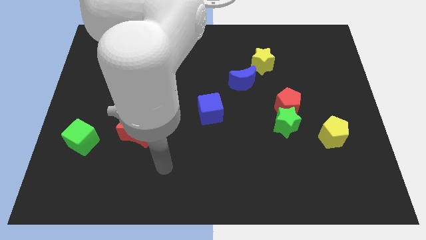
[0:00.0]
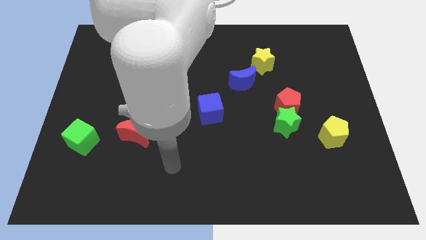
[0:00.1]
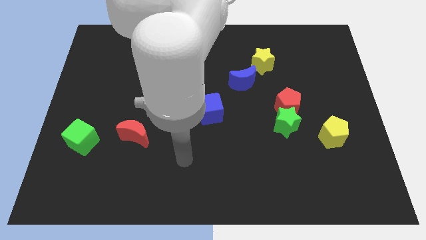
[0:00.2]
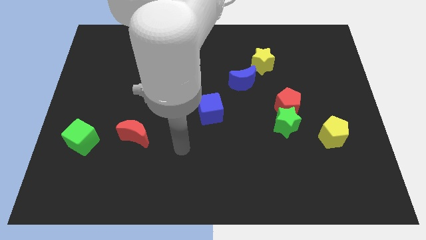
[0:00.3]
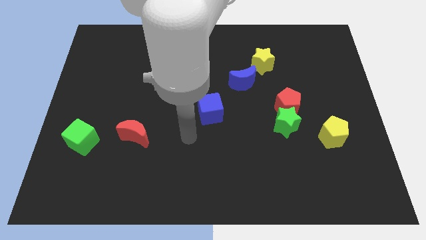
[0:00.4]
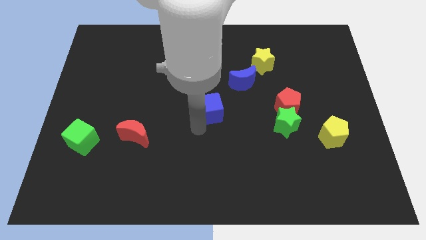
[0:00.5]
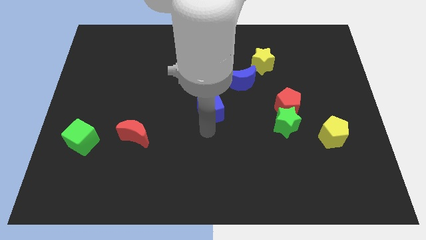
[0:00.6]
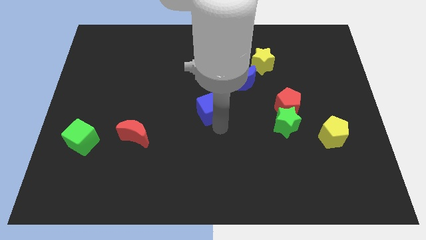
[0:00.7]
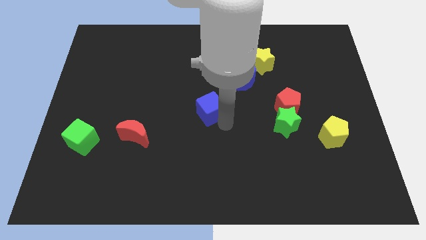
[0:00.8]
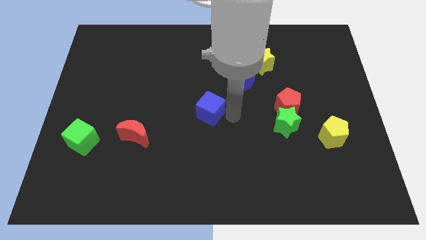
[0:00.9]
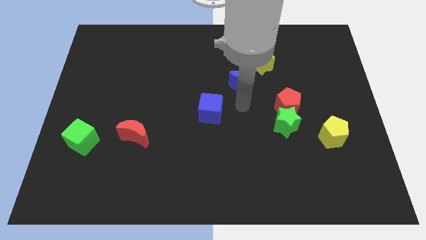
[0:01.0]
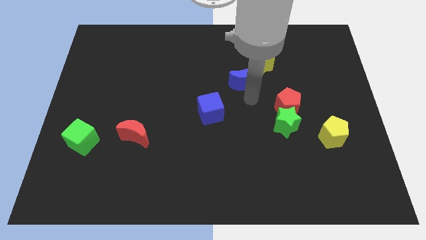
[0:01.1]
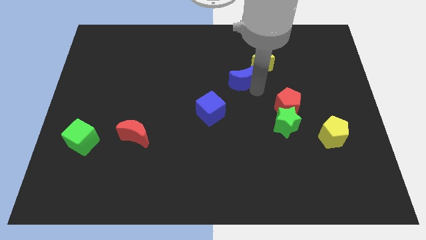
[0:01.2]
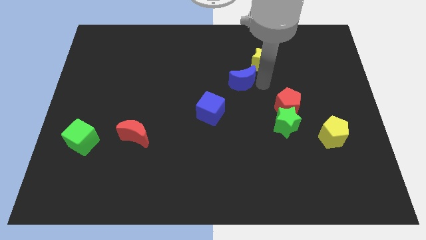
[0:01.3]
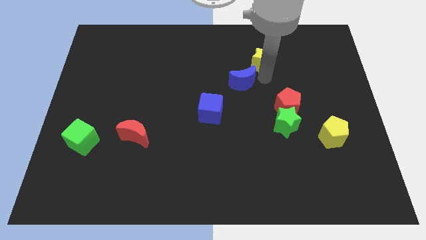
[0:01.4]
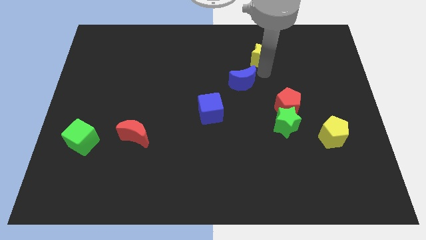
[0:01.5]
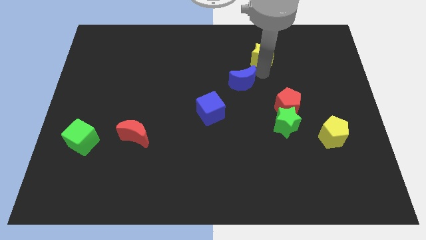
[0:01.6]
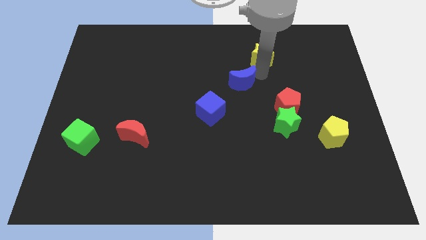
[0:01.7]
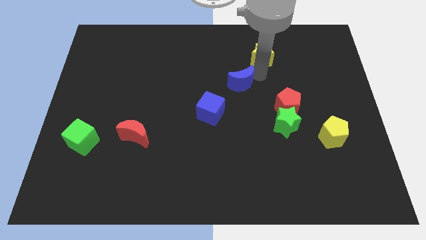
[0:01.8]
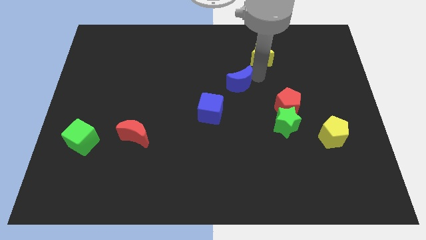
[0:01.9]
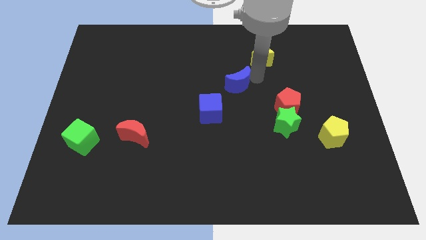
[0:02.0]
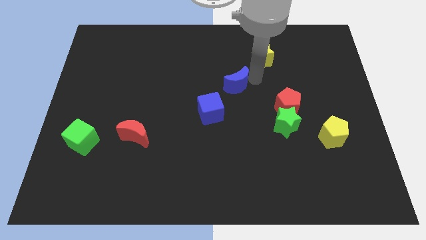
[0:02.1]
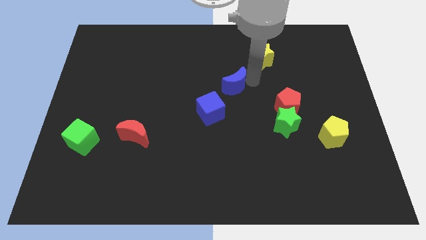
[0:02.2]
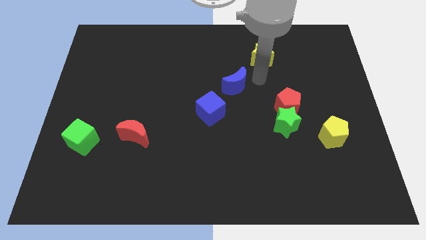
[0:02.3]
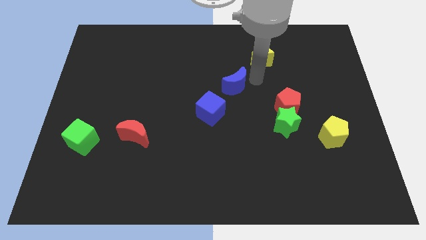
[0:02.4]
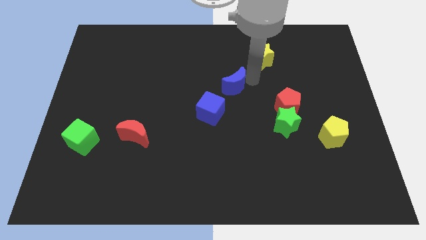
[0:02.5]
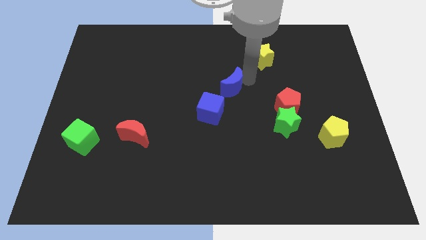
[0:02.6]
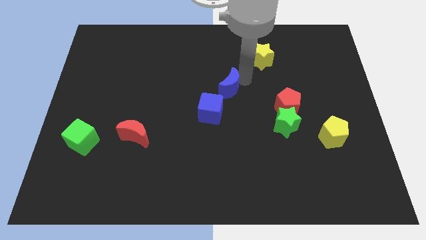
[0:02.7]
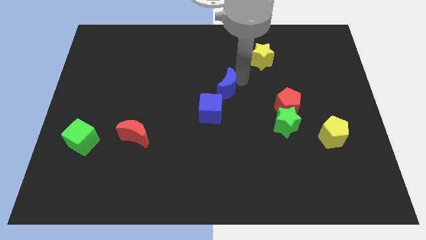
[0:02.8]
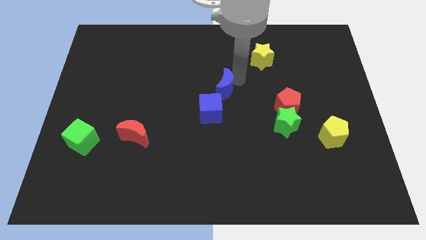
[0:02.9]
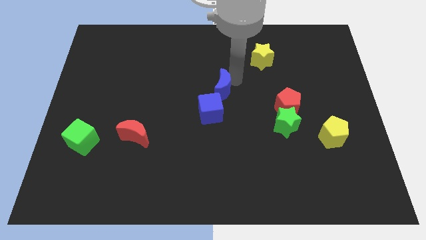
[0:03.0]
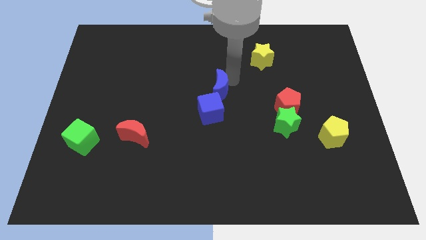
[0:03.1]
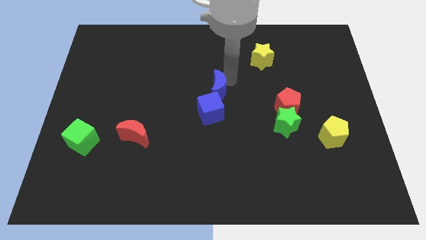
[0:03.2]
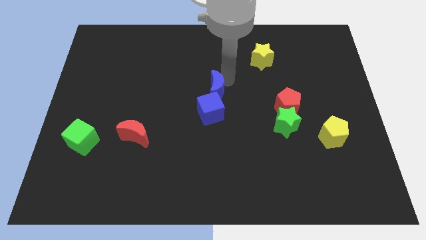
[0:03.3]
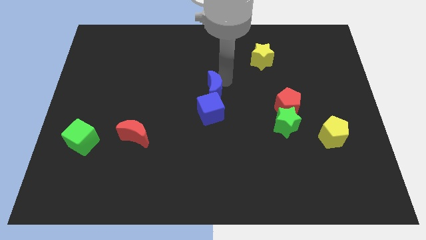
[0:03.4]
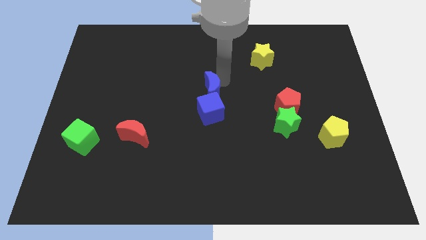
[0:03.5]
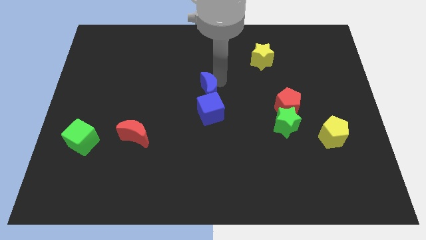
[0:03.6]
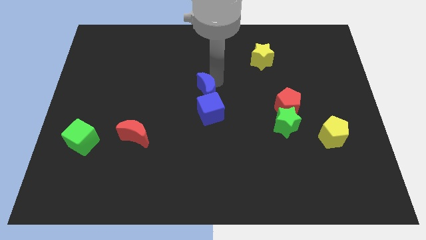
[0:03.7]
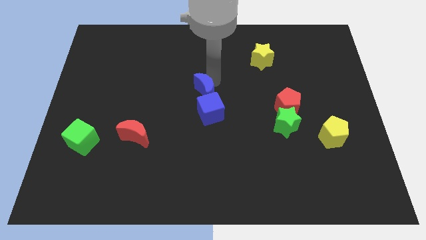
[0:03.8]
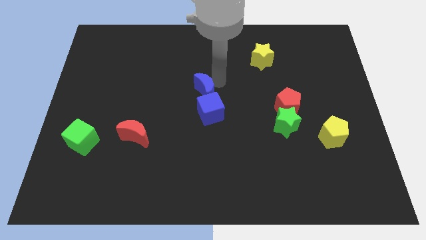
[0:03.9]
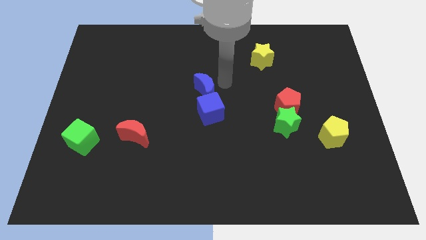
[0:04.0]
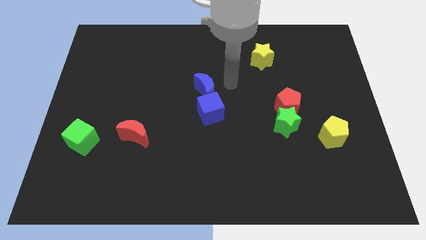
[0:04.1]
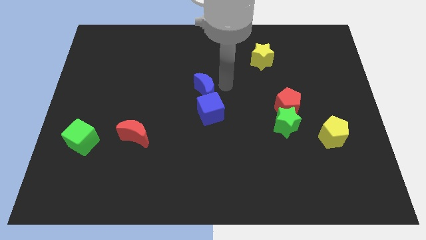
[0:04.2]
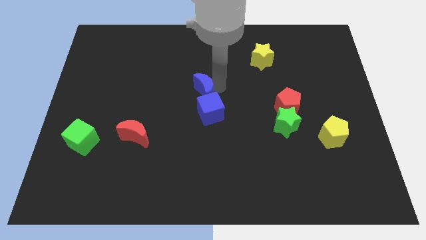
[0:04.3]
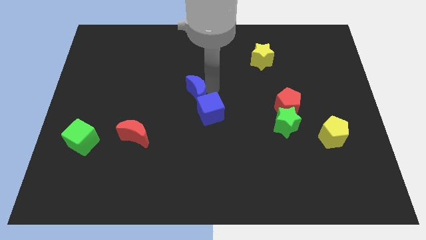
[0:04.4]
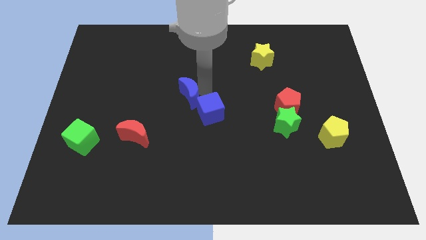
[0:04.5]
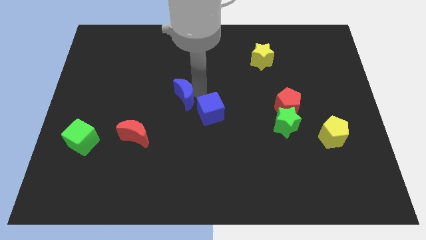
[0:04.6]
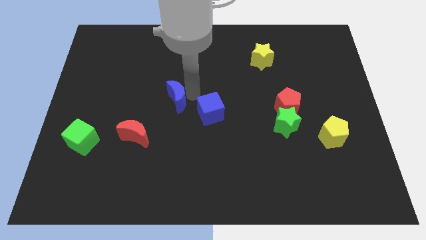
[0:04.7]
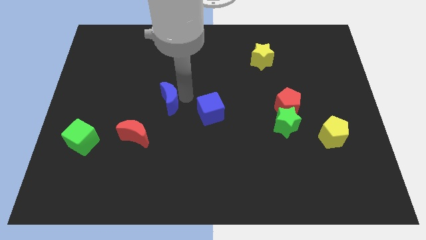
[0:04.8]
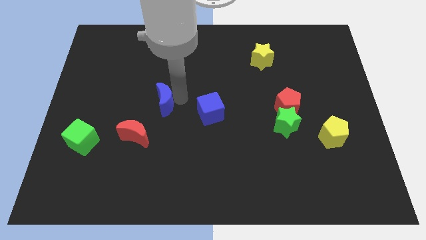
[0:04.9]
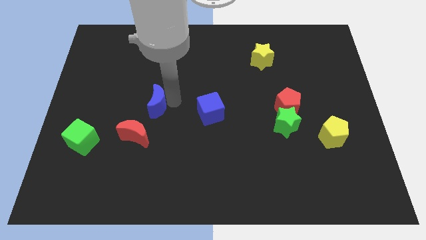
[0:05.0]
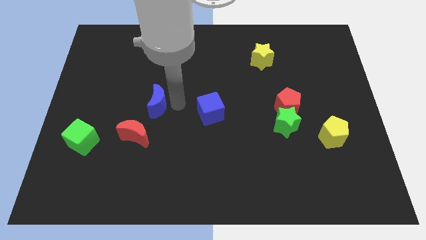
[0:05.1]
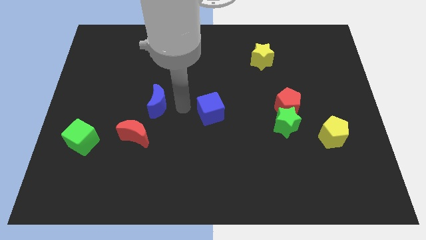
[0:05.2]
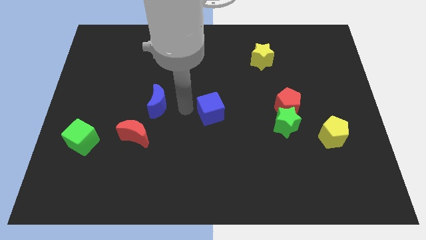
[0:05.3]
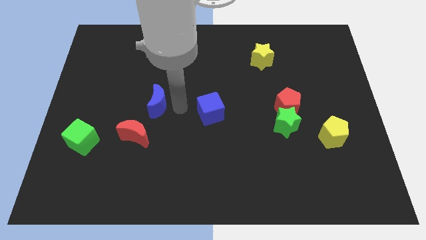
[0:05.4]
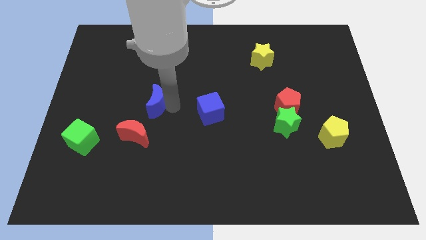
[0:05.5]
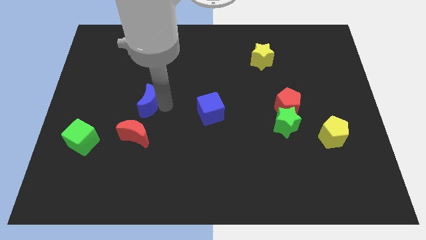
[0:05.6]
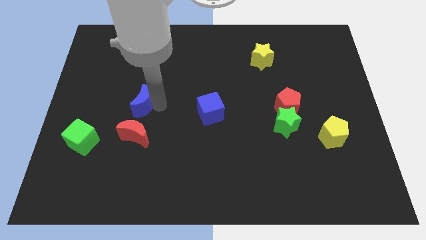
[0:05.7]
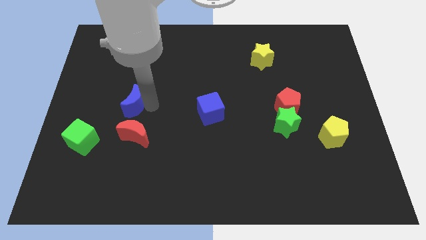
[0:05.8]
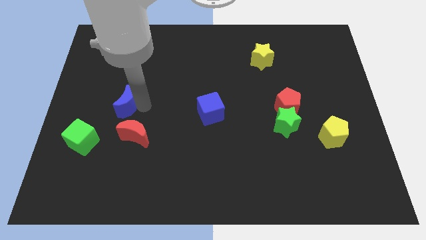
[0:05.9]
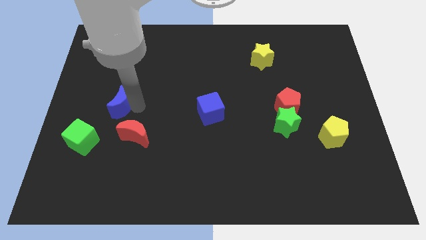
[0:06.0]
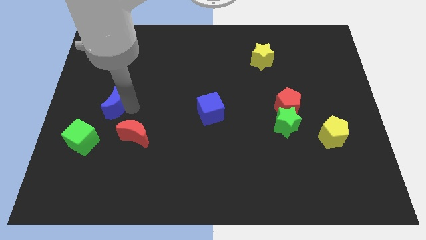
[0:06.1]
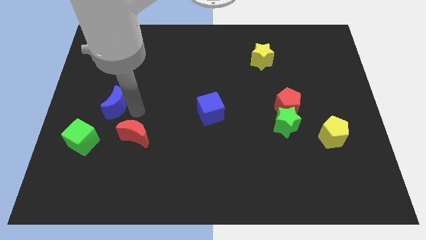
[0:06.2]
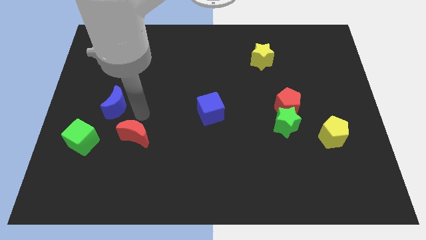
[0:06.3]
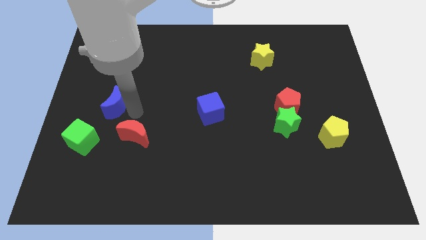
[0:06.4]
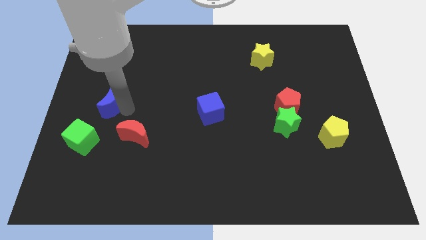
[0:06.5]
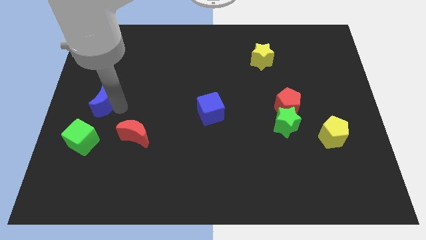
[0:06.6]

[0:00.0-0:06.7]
push the blue moon to the center left
